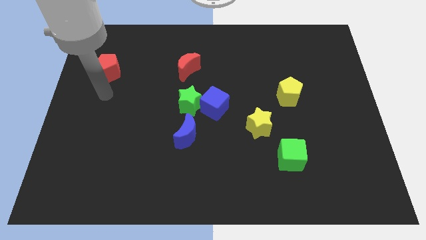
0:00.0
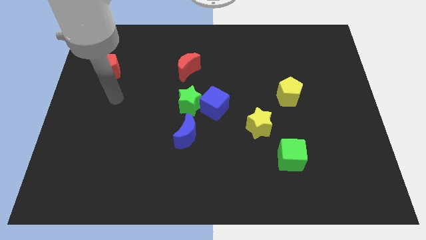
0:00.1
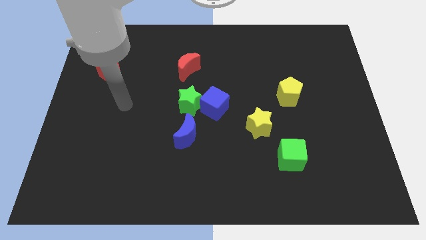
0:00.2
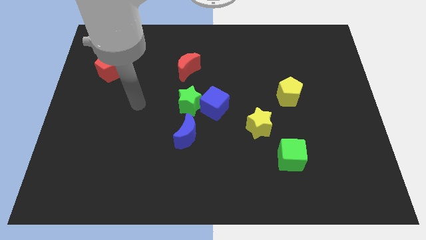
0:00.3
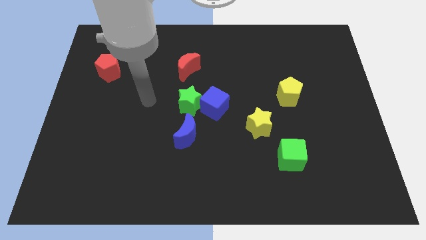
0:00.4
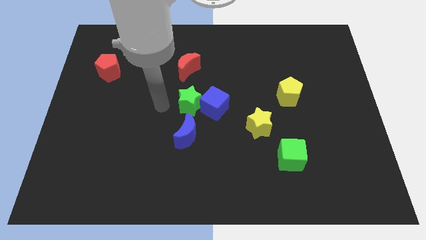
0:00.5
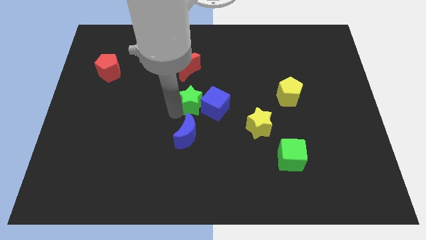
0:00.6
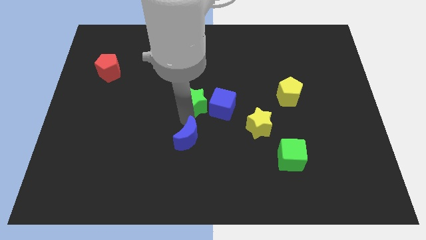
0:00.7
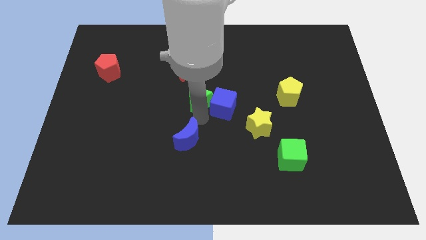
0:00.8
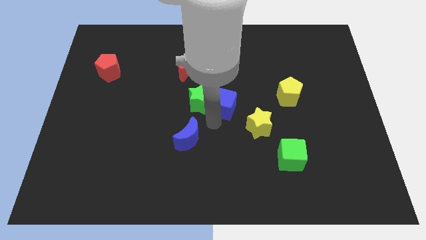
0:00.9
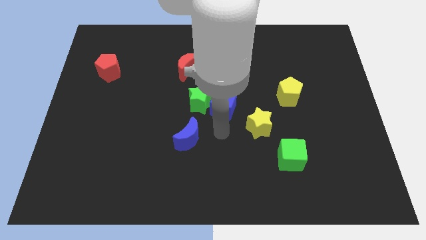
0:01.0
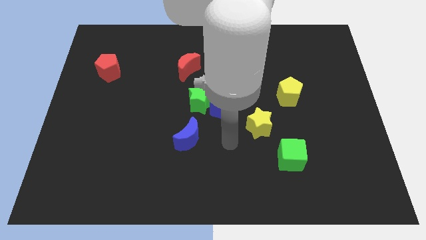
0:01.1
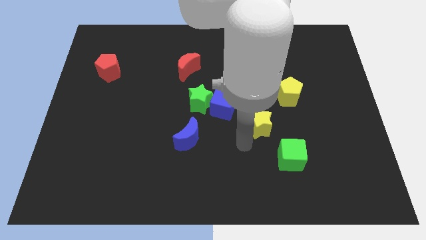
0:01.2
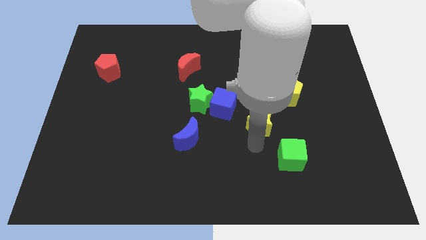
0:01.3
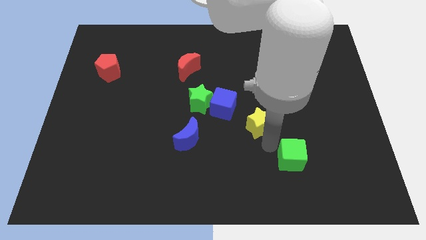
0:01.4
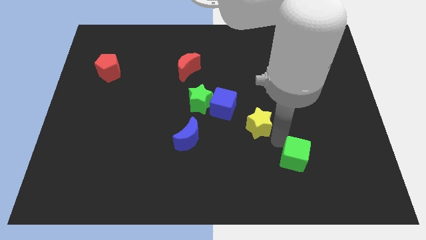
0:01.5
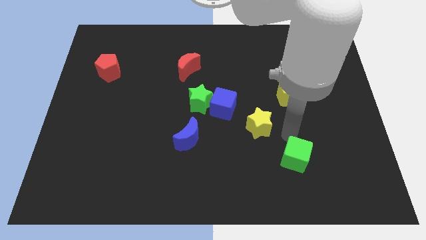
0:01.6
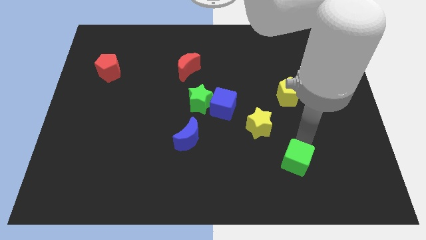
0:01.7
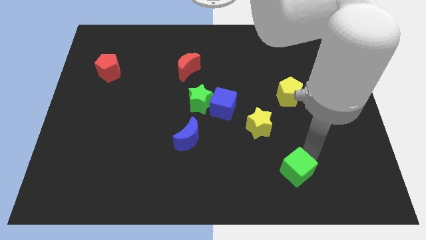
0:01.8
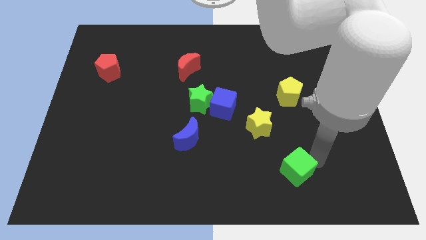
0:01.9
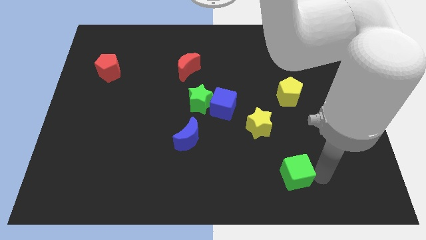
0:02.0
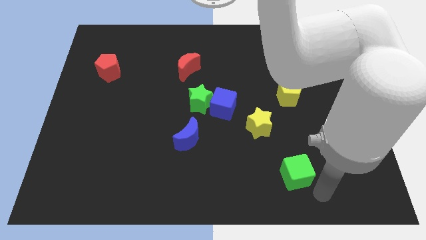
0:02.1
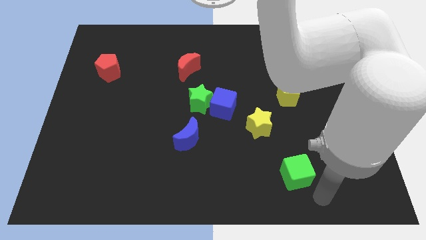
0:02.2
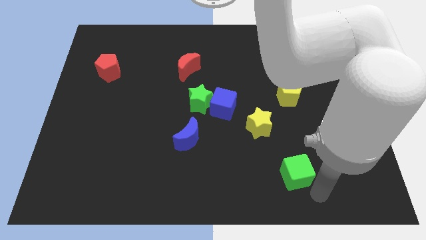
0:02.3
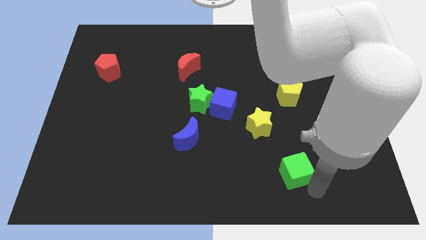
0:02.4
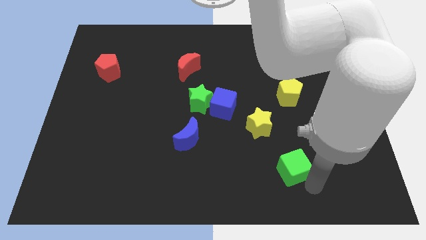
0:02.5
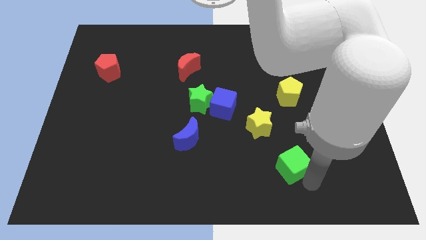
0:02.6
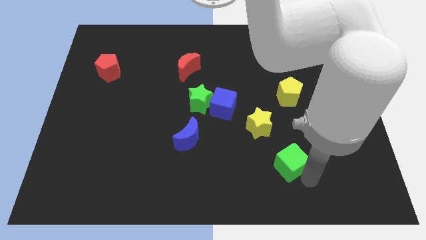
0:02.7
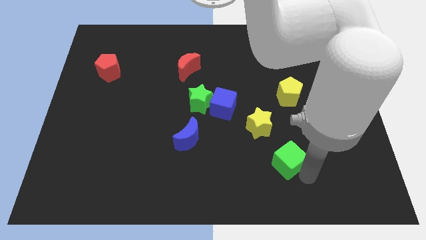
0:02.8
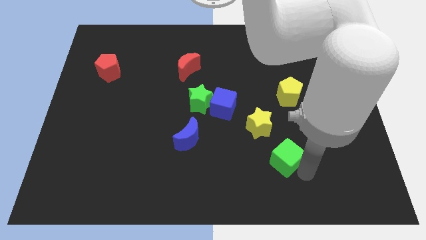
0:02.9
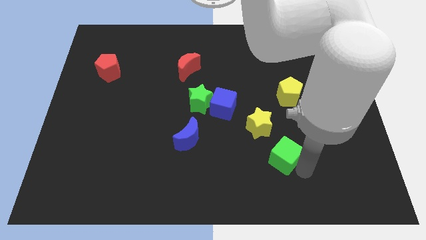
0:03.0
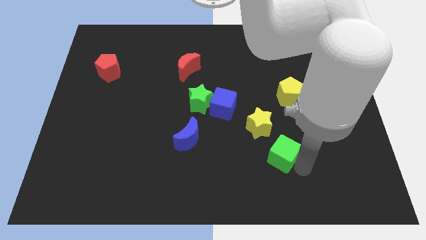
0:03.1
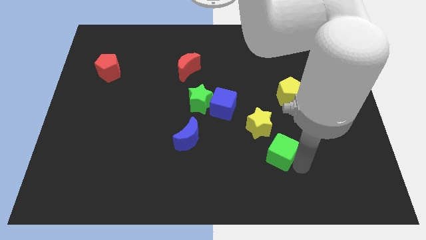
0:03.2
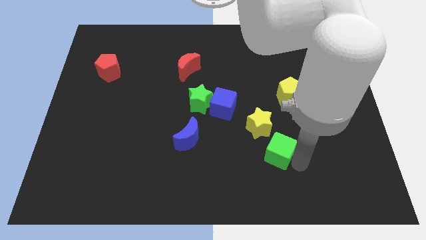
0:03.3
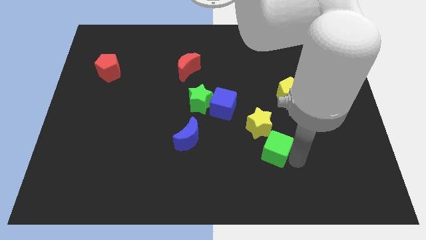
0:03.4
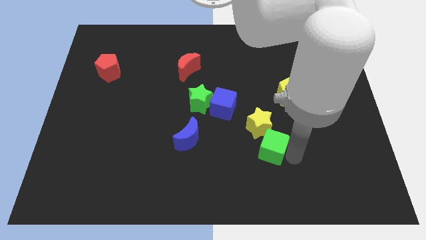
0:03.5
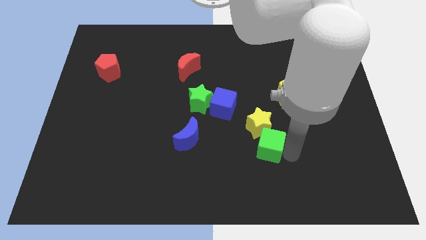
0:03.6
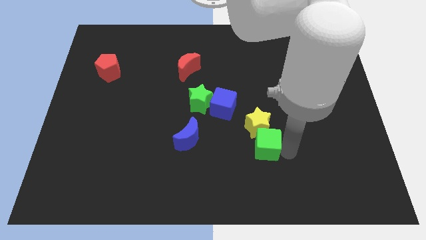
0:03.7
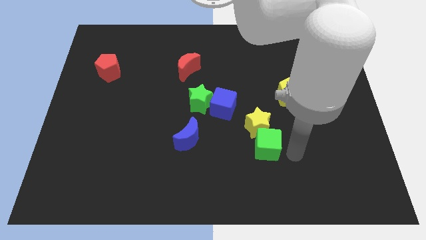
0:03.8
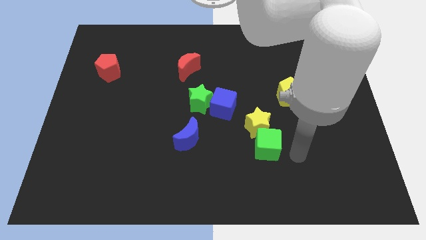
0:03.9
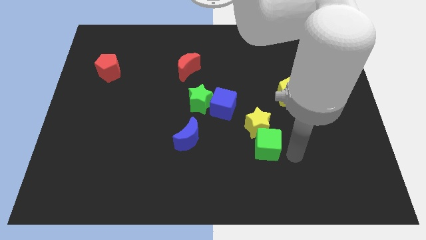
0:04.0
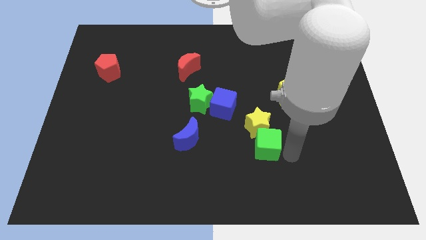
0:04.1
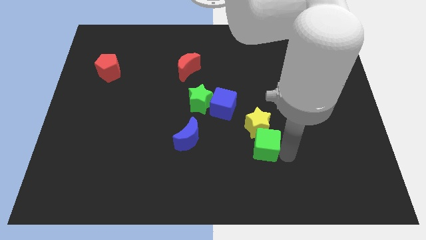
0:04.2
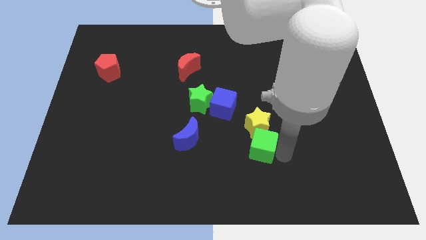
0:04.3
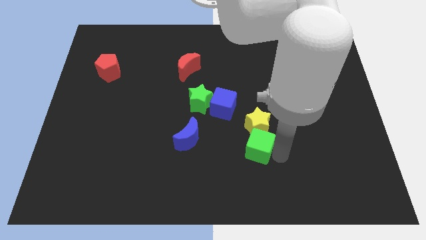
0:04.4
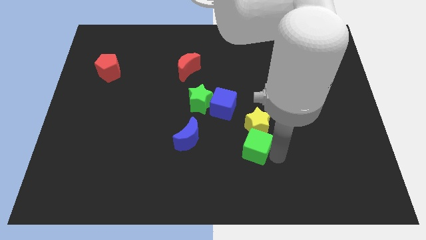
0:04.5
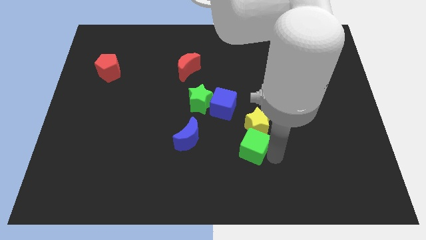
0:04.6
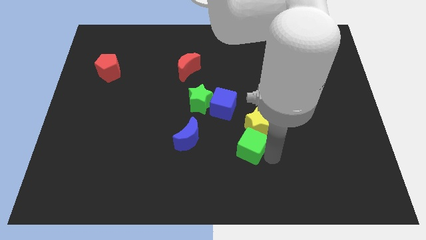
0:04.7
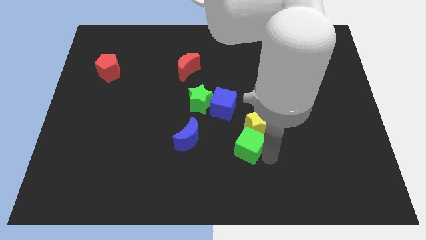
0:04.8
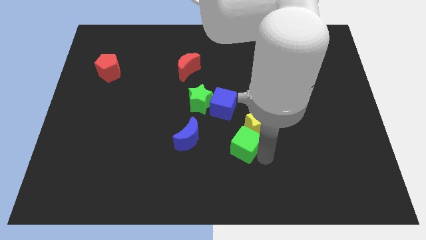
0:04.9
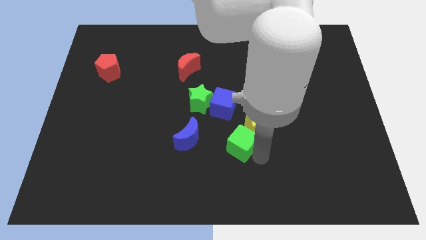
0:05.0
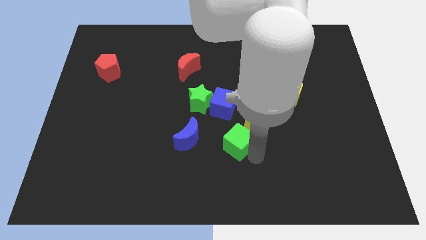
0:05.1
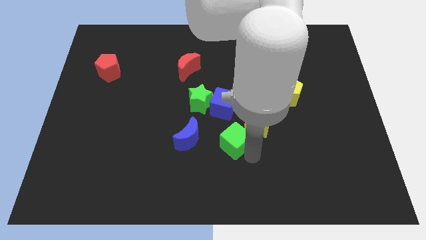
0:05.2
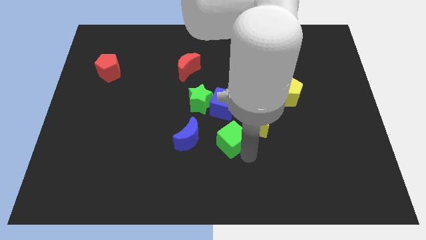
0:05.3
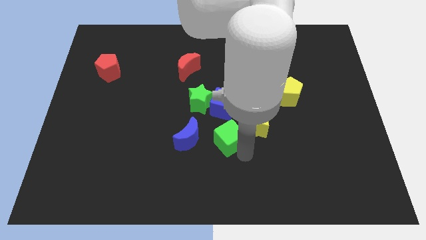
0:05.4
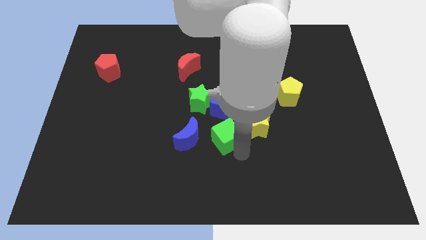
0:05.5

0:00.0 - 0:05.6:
move the green cube to the bottom right side of the green star

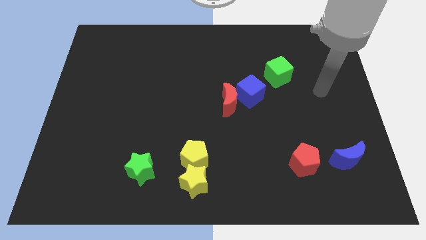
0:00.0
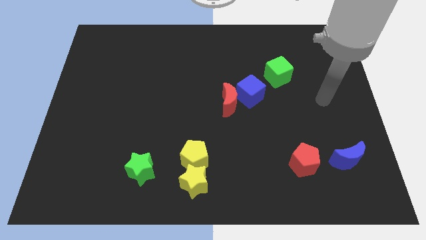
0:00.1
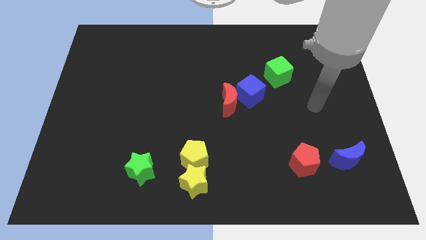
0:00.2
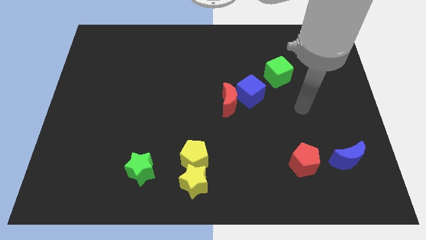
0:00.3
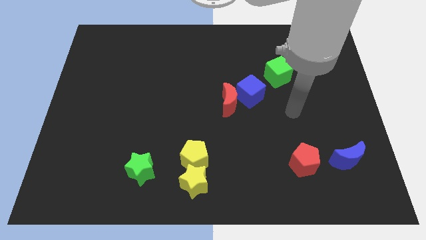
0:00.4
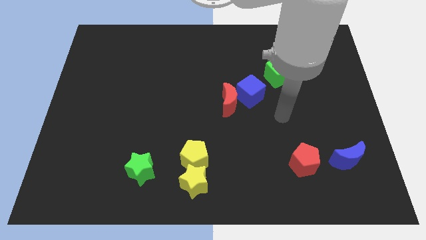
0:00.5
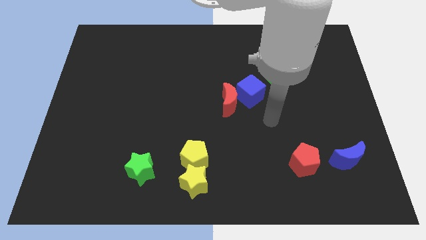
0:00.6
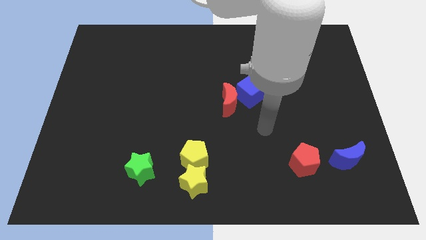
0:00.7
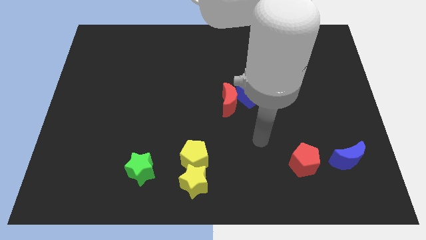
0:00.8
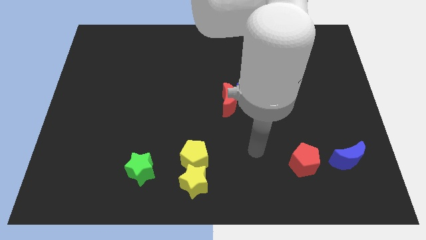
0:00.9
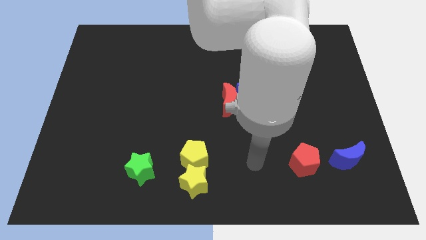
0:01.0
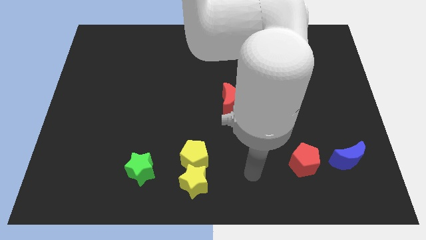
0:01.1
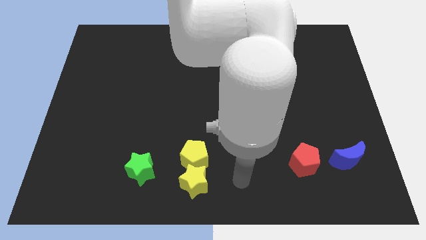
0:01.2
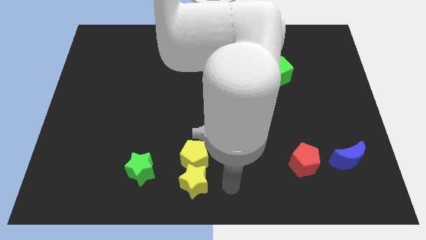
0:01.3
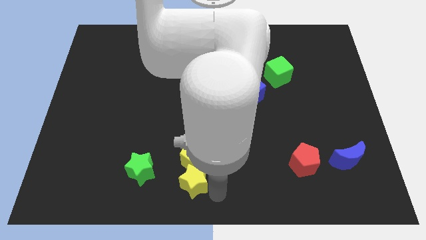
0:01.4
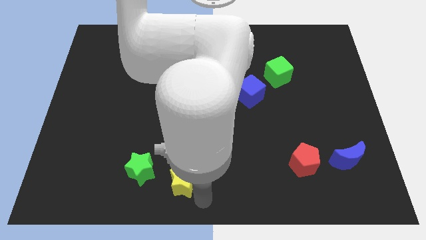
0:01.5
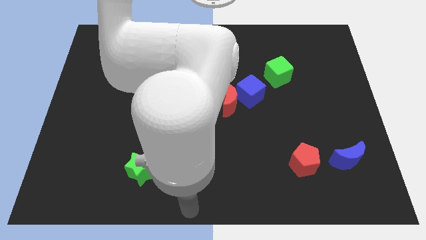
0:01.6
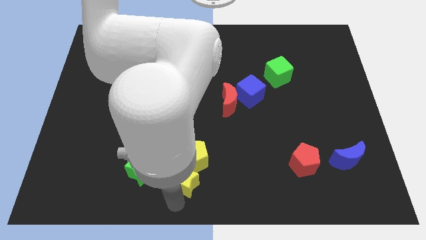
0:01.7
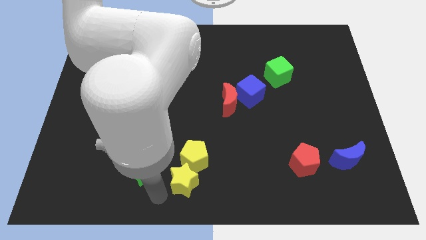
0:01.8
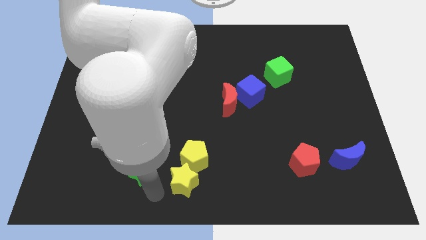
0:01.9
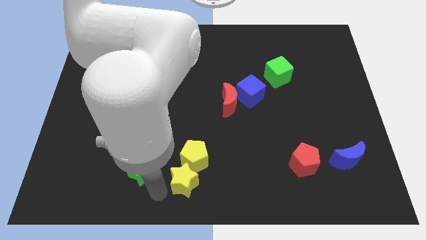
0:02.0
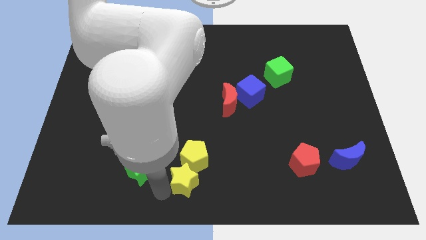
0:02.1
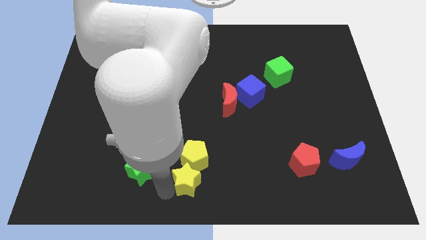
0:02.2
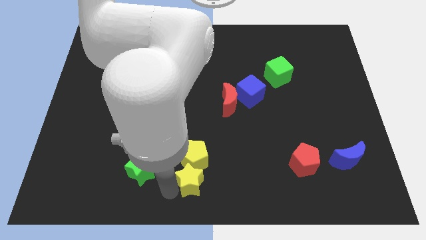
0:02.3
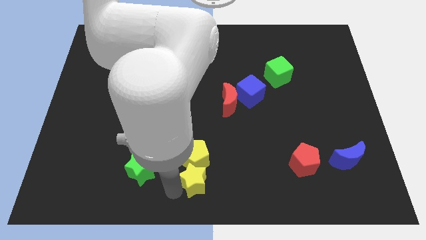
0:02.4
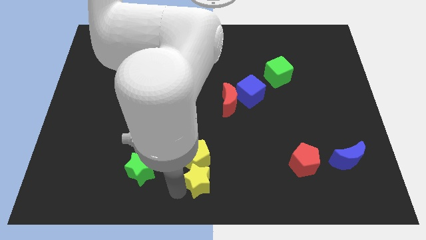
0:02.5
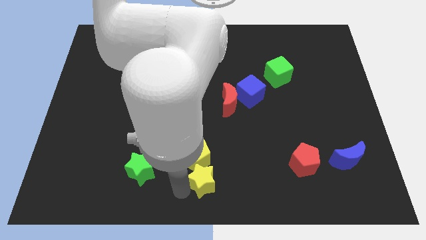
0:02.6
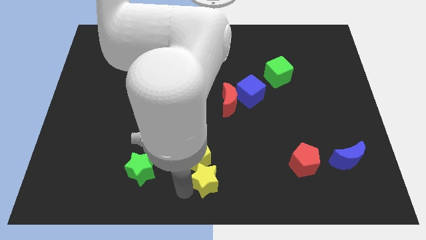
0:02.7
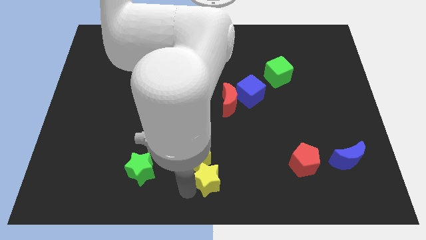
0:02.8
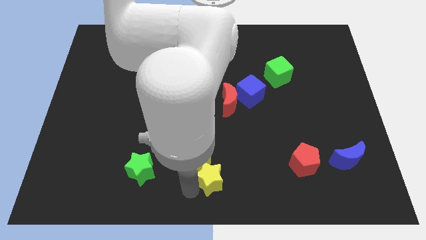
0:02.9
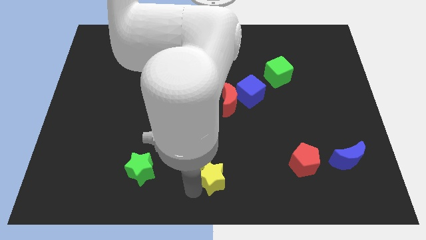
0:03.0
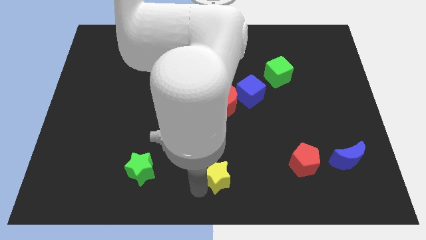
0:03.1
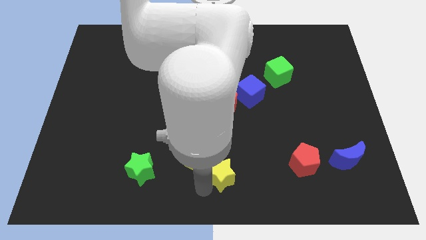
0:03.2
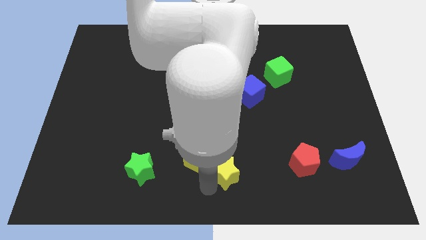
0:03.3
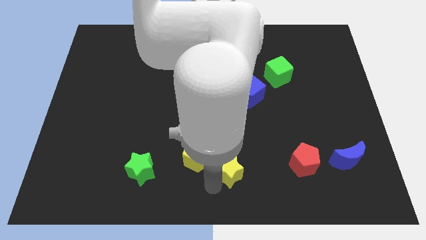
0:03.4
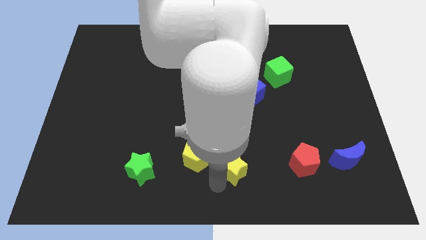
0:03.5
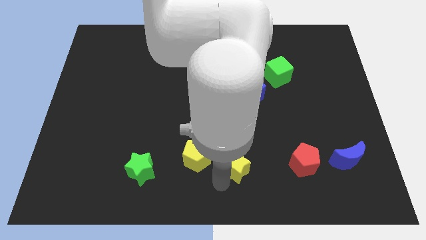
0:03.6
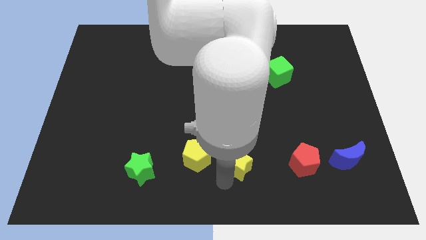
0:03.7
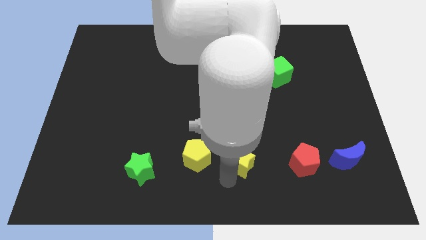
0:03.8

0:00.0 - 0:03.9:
put the yellow star below the red moon
